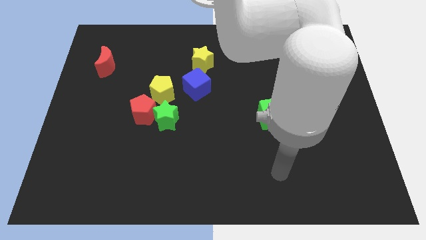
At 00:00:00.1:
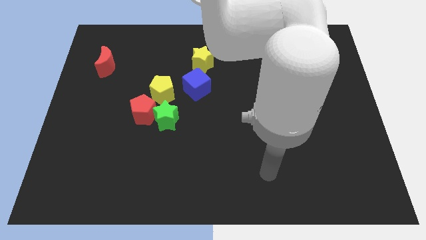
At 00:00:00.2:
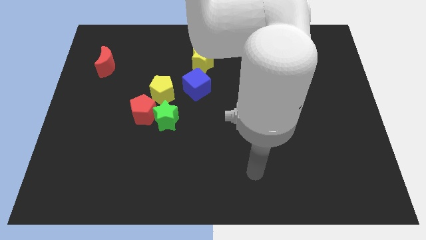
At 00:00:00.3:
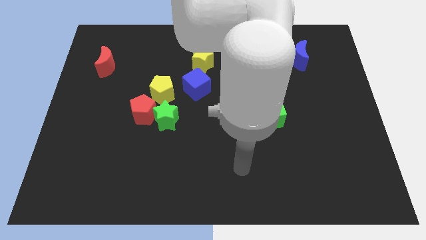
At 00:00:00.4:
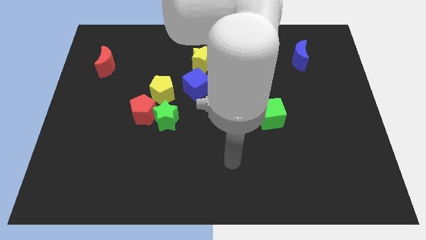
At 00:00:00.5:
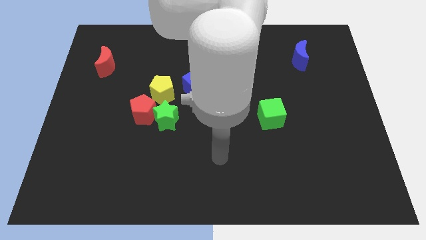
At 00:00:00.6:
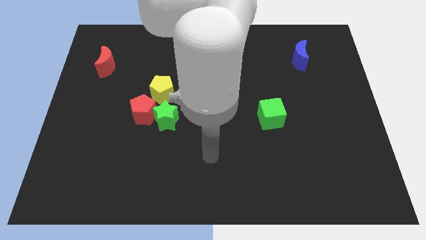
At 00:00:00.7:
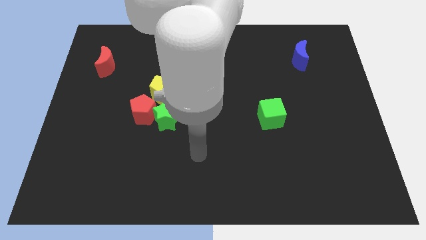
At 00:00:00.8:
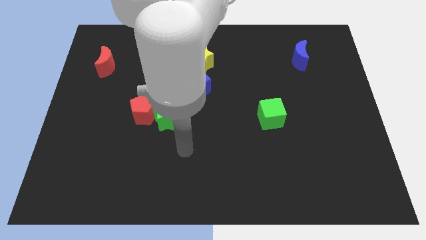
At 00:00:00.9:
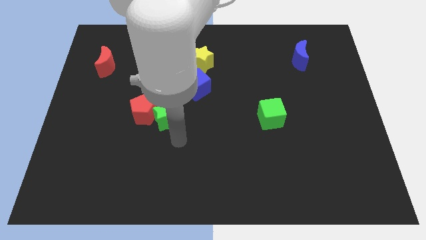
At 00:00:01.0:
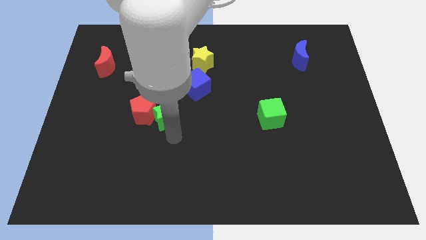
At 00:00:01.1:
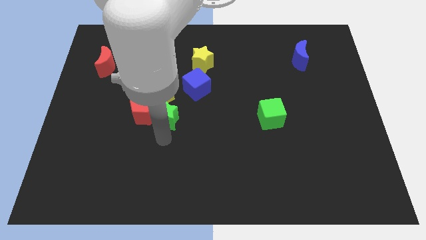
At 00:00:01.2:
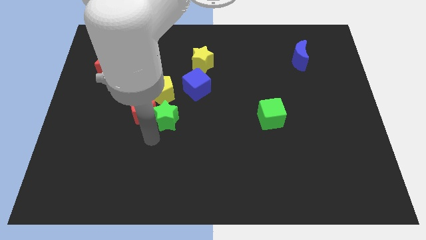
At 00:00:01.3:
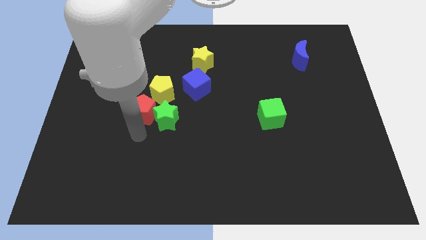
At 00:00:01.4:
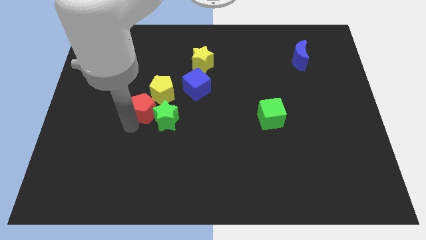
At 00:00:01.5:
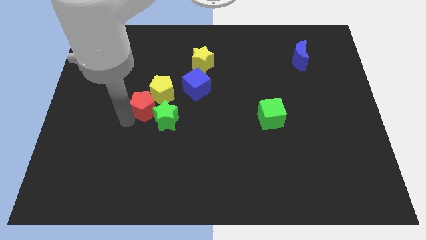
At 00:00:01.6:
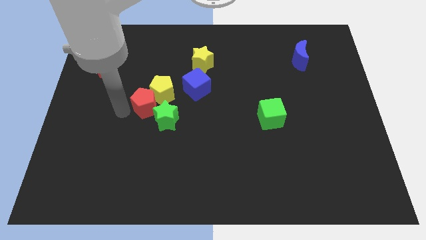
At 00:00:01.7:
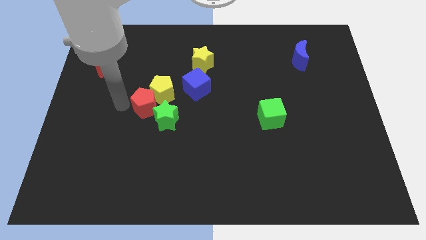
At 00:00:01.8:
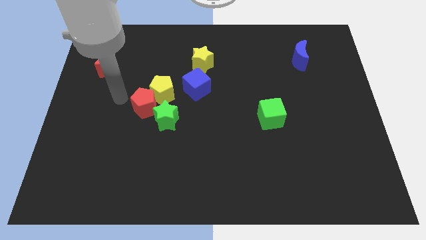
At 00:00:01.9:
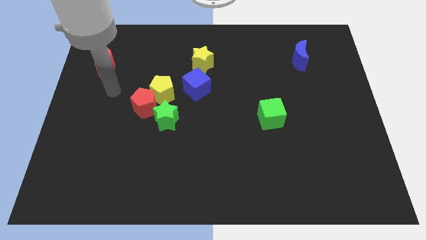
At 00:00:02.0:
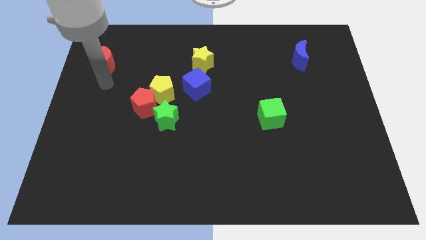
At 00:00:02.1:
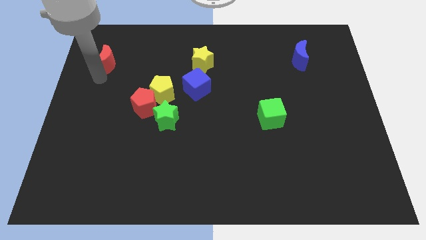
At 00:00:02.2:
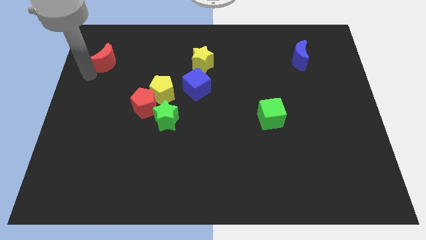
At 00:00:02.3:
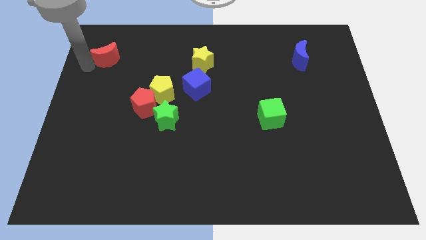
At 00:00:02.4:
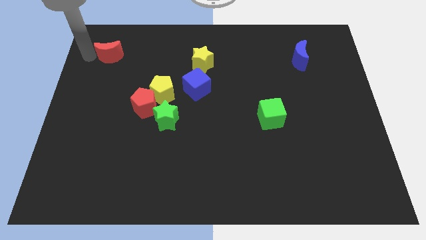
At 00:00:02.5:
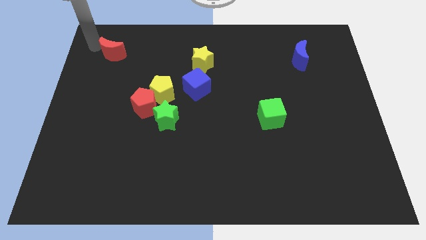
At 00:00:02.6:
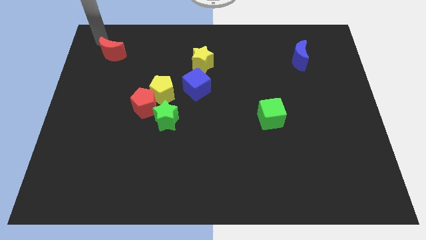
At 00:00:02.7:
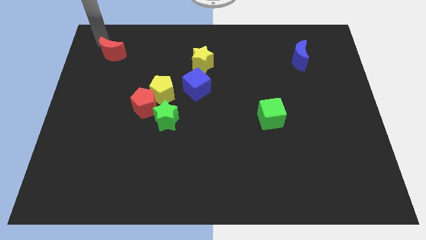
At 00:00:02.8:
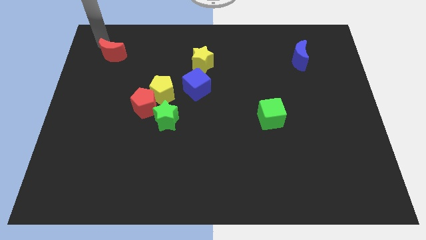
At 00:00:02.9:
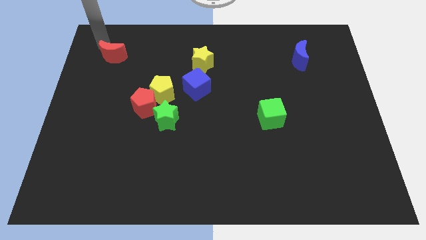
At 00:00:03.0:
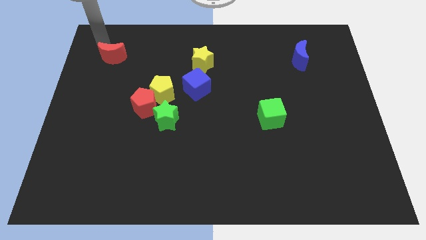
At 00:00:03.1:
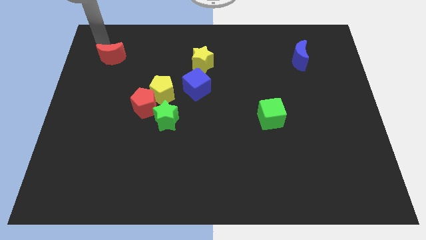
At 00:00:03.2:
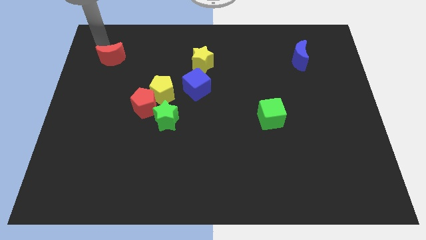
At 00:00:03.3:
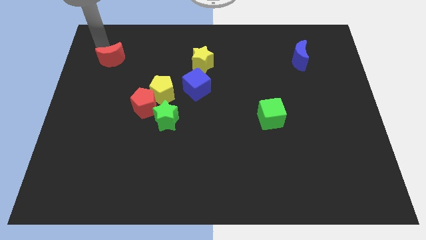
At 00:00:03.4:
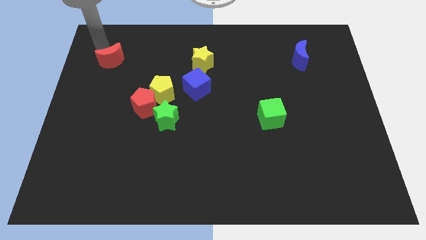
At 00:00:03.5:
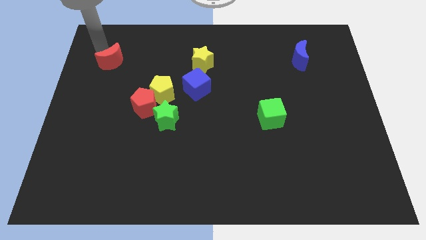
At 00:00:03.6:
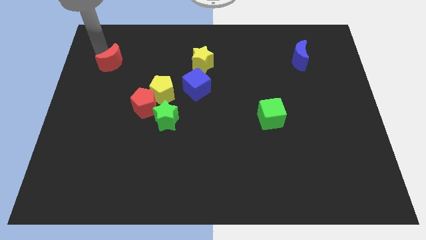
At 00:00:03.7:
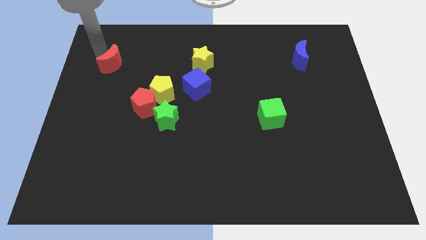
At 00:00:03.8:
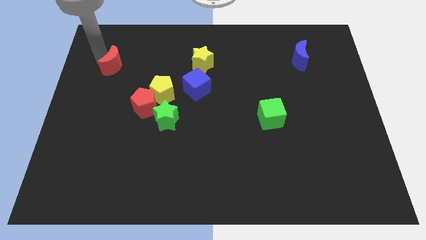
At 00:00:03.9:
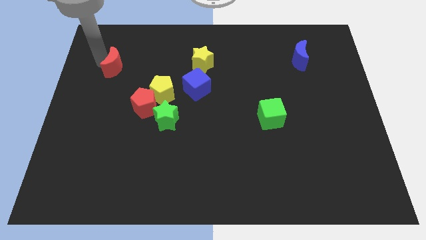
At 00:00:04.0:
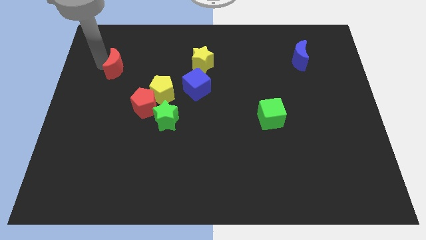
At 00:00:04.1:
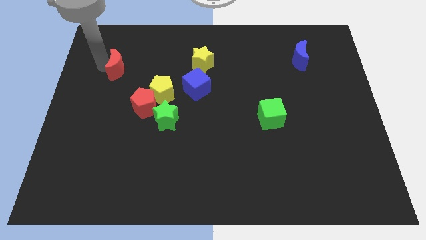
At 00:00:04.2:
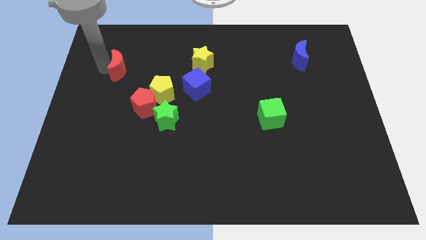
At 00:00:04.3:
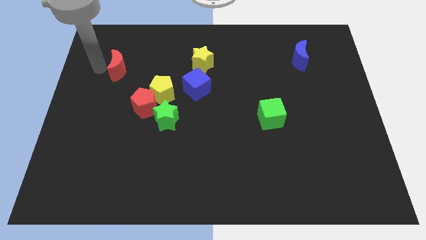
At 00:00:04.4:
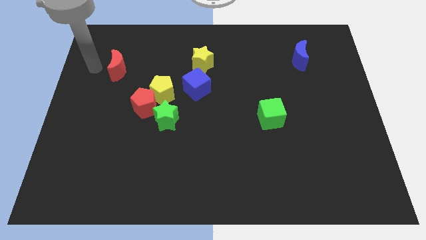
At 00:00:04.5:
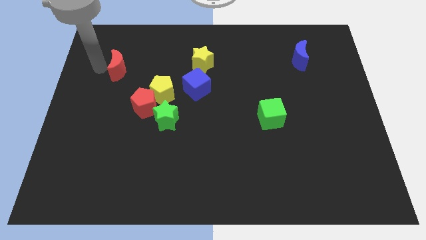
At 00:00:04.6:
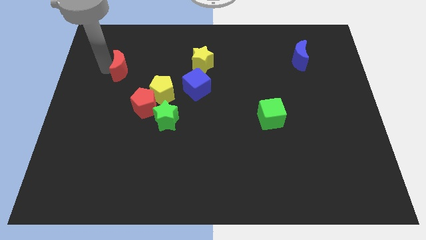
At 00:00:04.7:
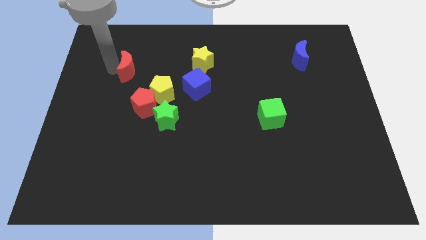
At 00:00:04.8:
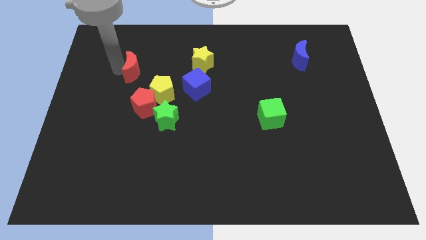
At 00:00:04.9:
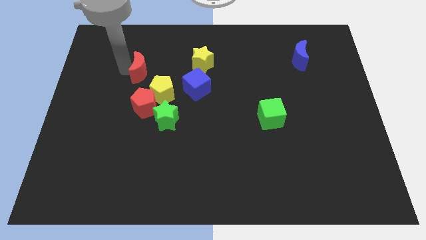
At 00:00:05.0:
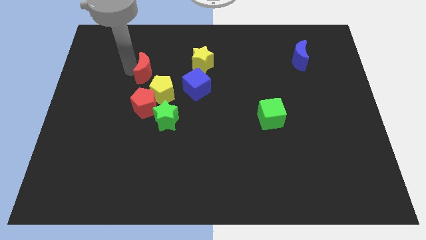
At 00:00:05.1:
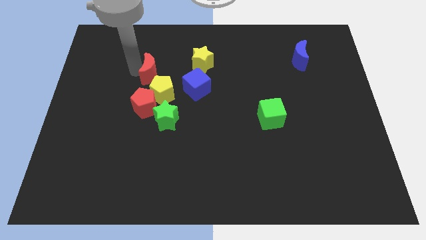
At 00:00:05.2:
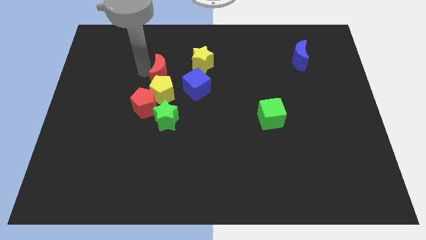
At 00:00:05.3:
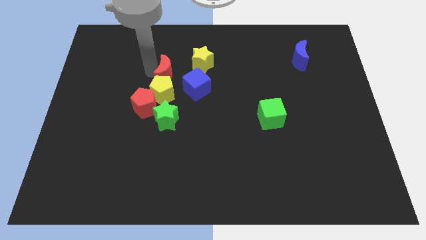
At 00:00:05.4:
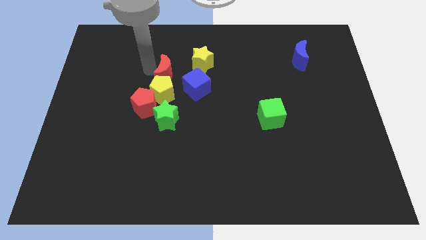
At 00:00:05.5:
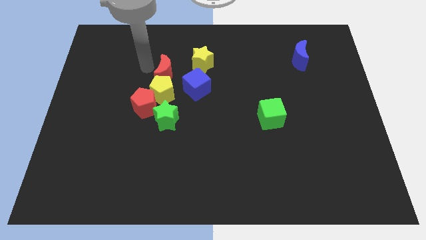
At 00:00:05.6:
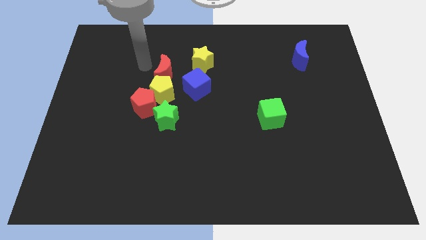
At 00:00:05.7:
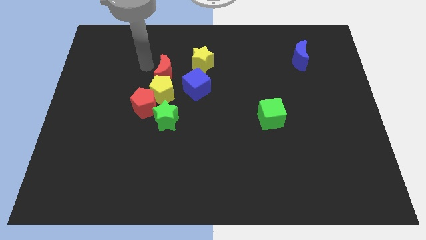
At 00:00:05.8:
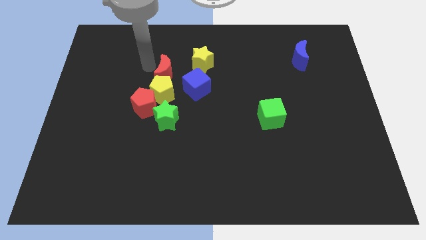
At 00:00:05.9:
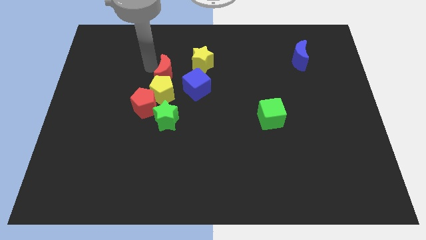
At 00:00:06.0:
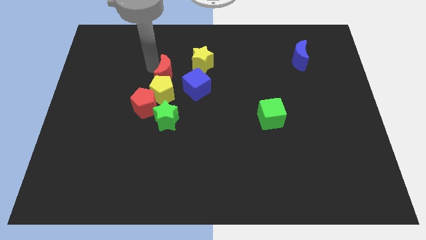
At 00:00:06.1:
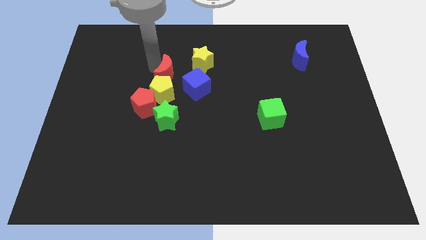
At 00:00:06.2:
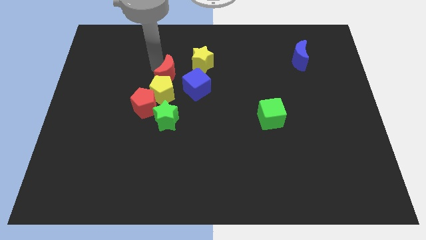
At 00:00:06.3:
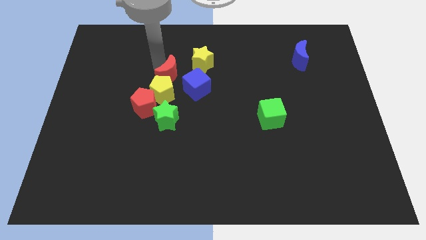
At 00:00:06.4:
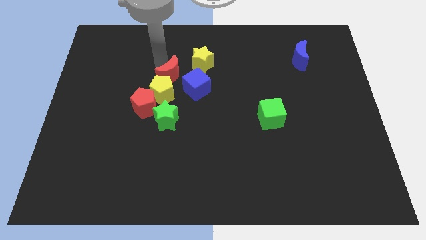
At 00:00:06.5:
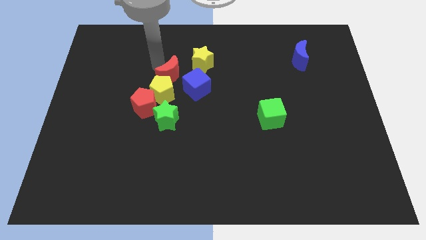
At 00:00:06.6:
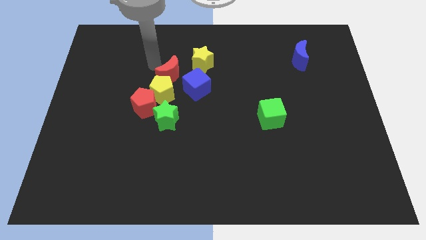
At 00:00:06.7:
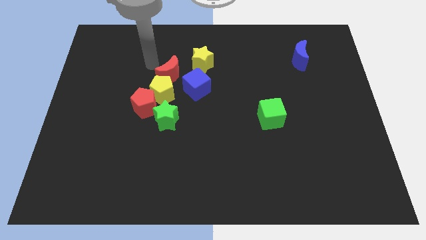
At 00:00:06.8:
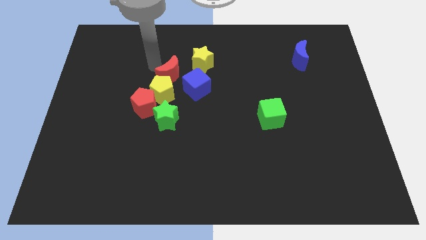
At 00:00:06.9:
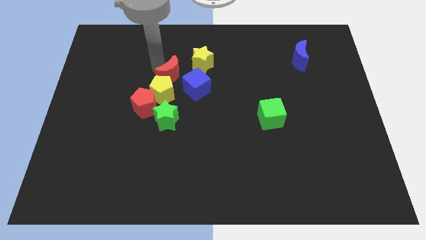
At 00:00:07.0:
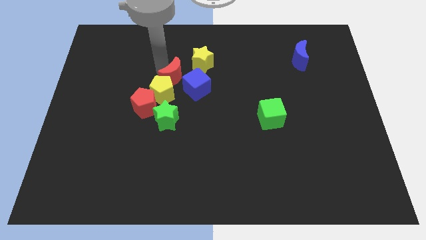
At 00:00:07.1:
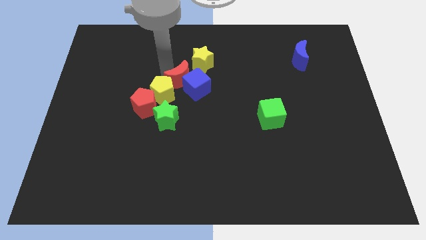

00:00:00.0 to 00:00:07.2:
put the red moon to the blue cube

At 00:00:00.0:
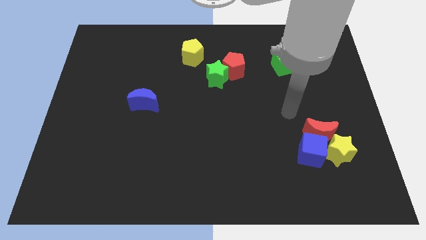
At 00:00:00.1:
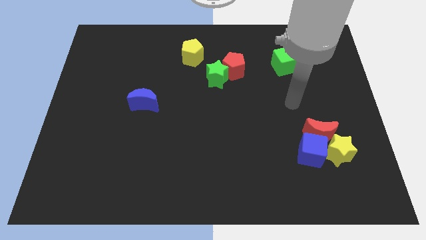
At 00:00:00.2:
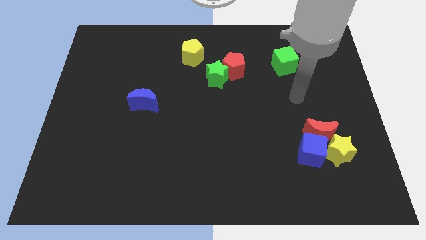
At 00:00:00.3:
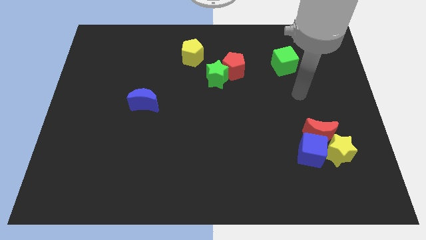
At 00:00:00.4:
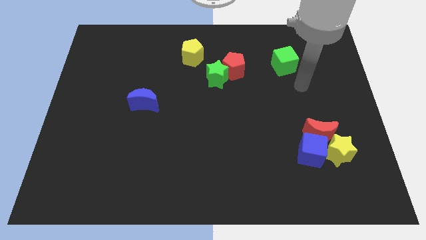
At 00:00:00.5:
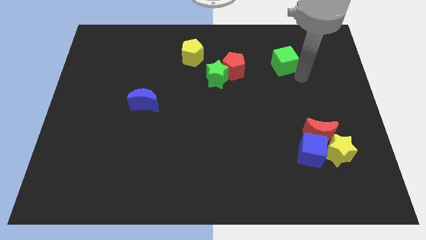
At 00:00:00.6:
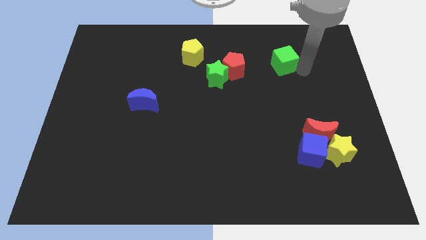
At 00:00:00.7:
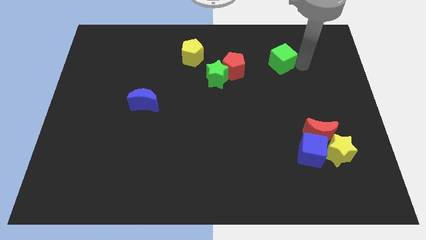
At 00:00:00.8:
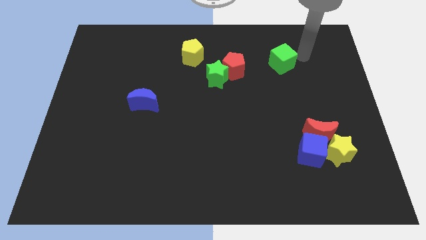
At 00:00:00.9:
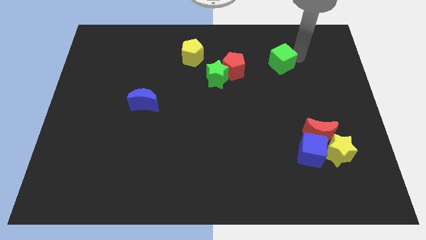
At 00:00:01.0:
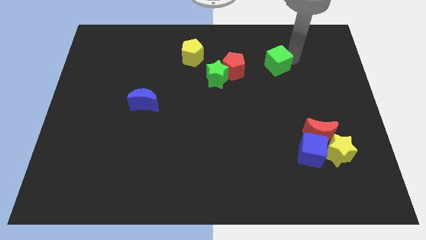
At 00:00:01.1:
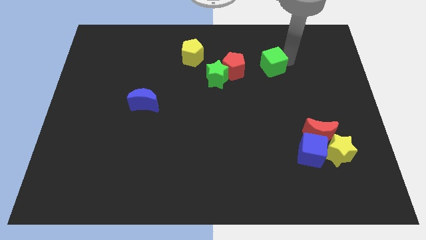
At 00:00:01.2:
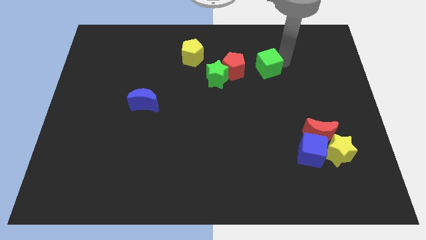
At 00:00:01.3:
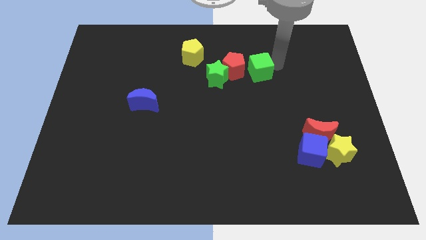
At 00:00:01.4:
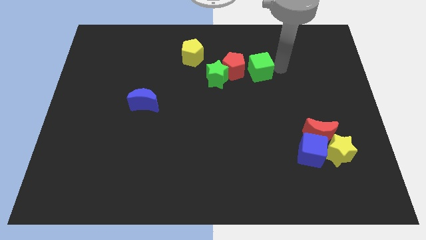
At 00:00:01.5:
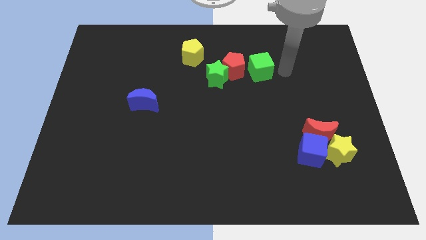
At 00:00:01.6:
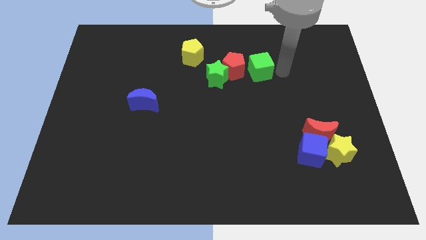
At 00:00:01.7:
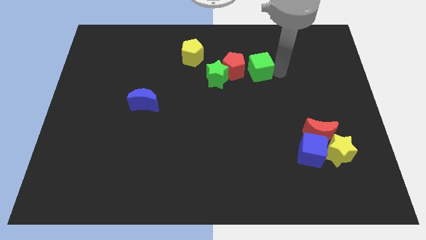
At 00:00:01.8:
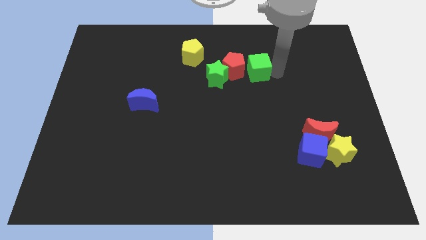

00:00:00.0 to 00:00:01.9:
push the green cube close to the red pentagon
